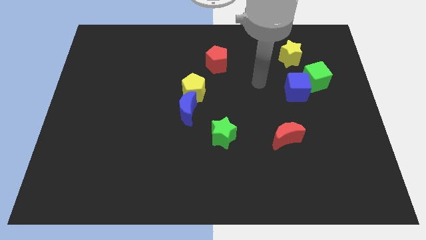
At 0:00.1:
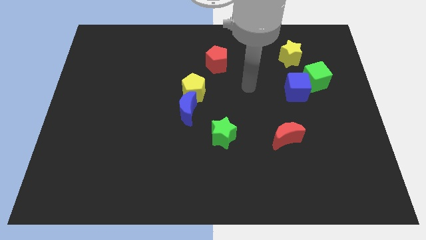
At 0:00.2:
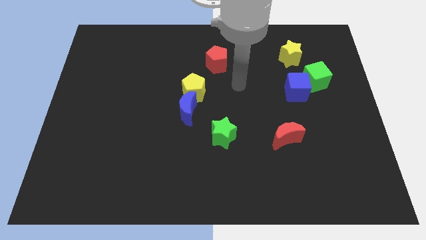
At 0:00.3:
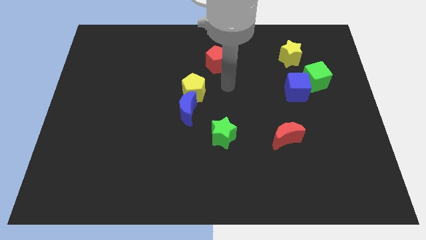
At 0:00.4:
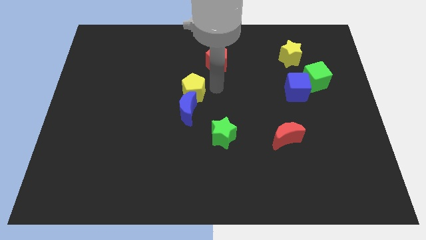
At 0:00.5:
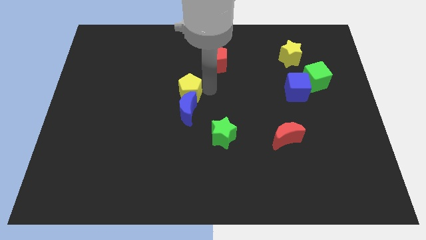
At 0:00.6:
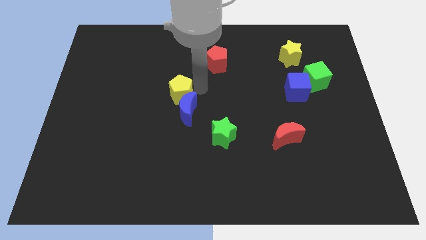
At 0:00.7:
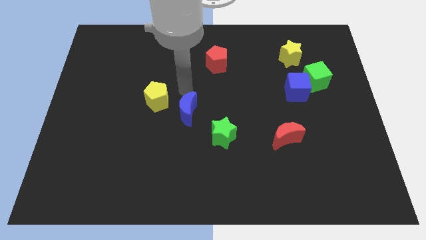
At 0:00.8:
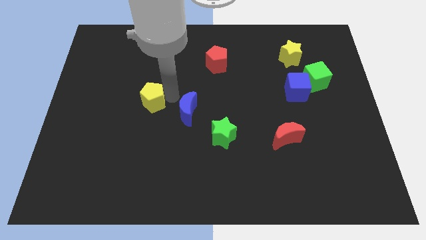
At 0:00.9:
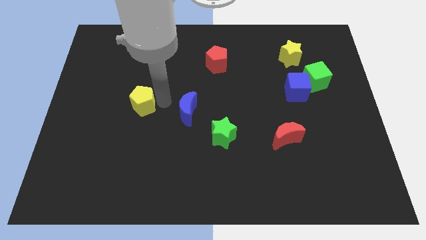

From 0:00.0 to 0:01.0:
pull the blue moon apart from the yellow pentagon

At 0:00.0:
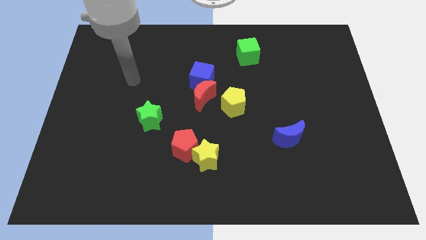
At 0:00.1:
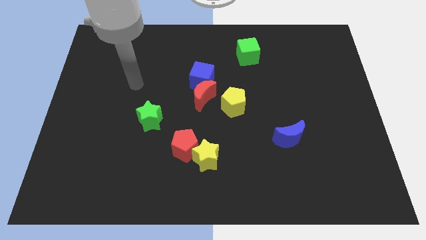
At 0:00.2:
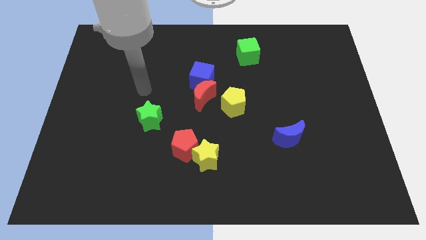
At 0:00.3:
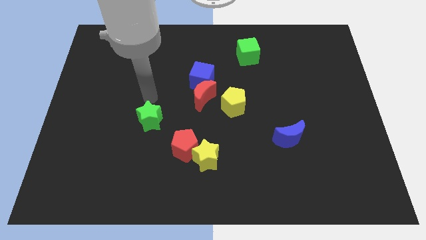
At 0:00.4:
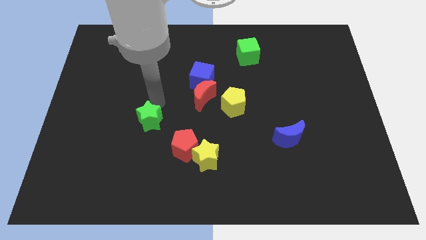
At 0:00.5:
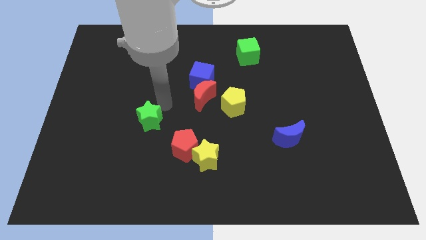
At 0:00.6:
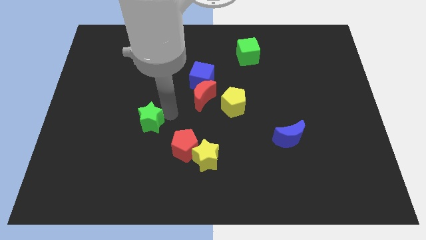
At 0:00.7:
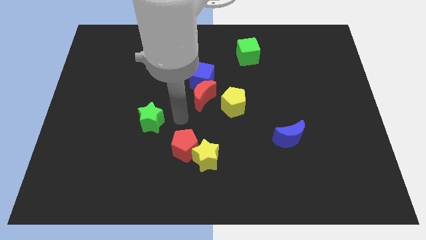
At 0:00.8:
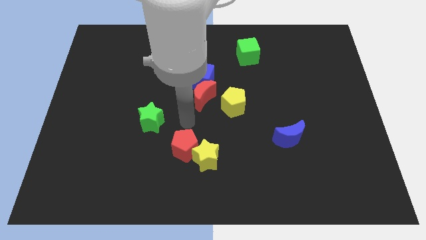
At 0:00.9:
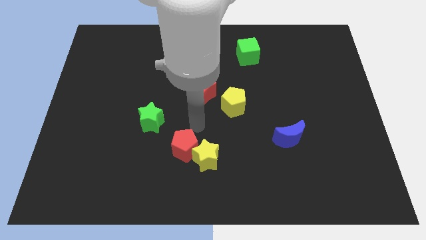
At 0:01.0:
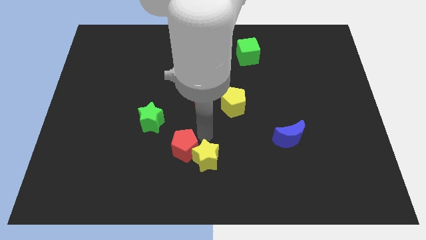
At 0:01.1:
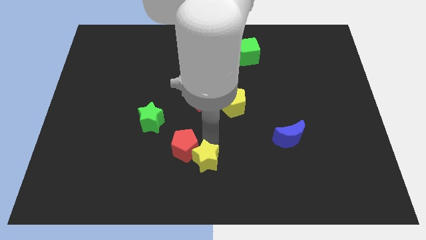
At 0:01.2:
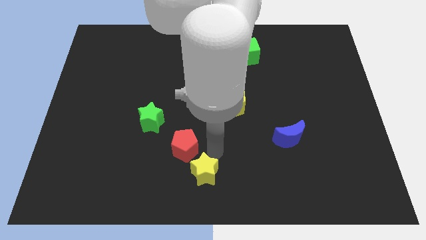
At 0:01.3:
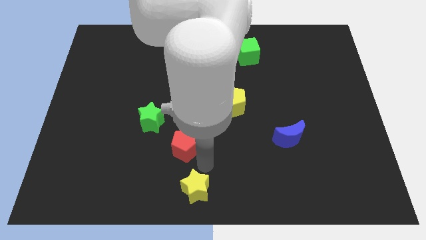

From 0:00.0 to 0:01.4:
pull the red pentagon apart from the yellow star

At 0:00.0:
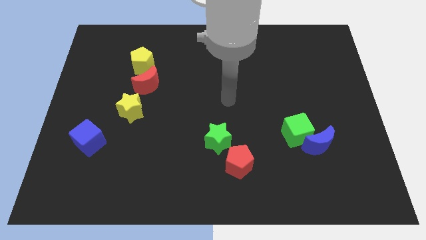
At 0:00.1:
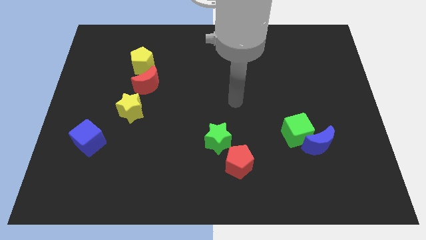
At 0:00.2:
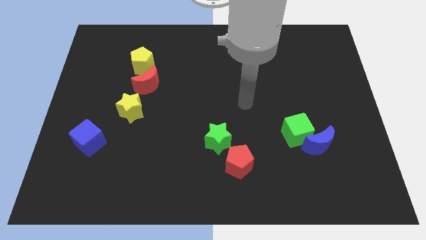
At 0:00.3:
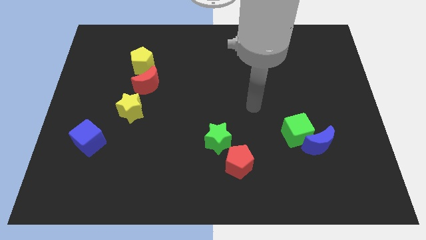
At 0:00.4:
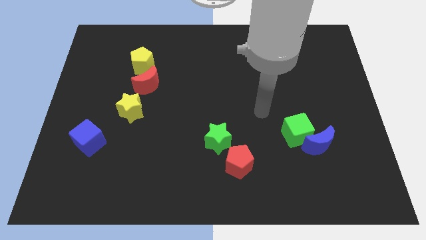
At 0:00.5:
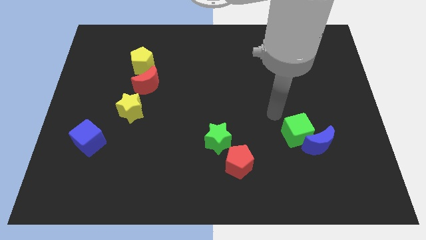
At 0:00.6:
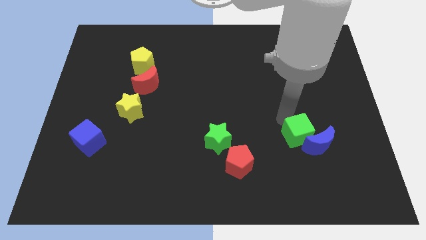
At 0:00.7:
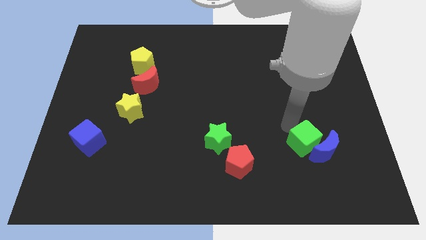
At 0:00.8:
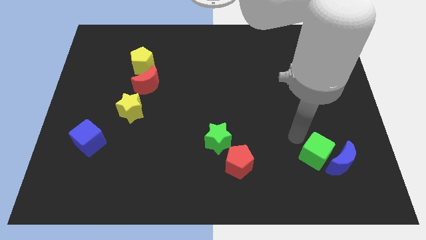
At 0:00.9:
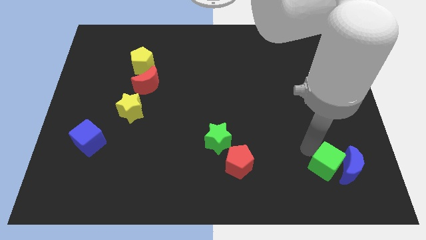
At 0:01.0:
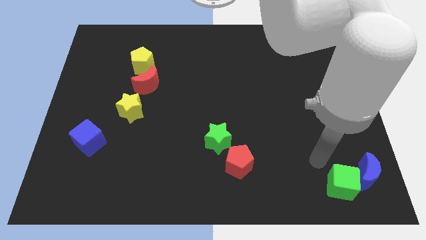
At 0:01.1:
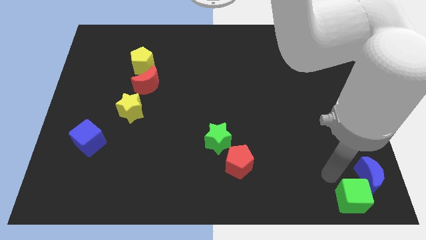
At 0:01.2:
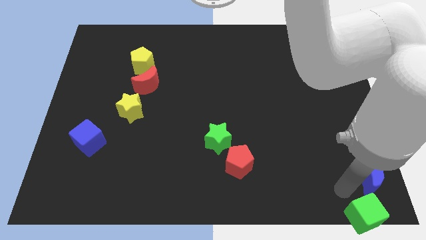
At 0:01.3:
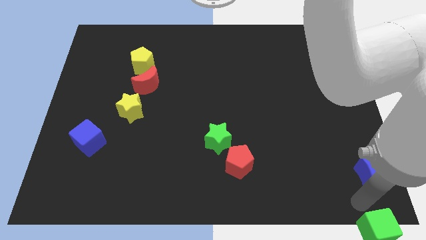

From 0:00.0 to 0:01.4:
move the blue moon away from the green cube

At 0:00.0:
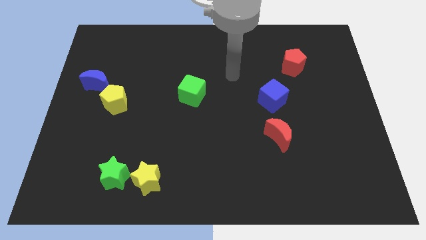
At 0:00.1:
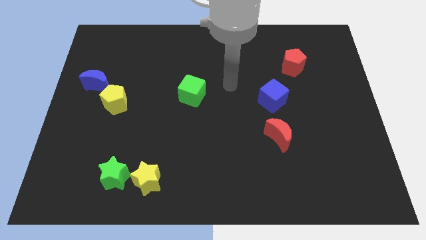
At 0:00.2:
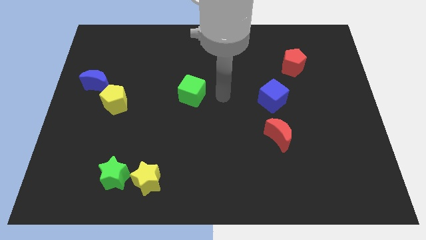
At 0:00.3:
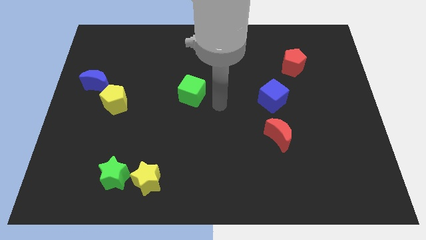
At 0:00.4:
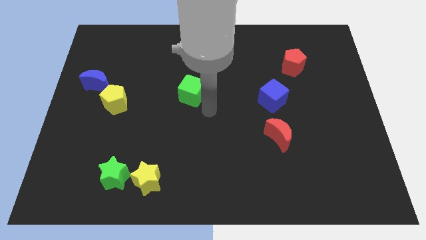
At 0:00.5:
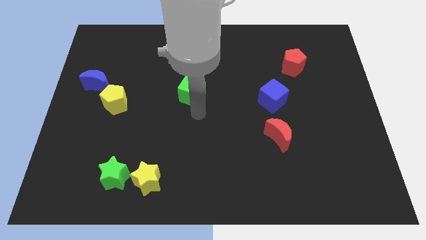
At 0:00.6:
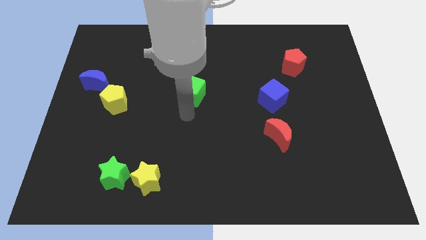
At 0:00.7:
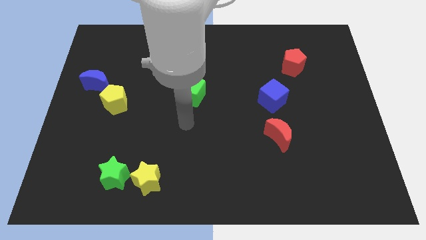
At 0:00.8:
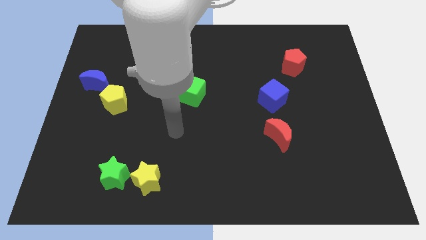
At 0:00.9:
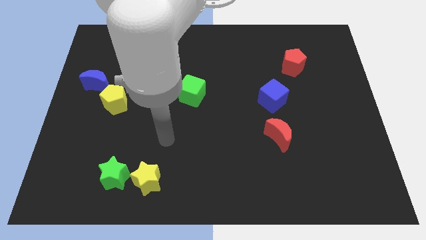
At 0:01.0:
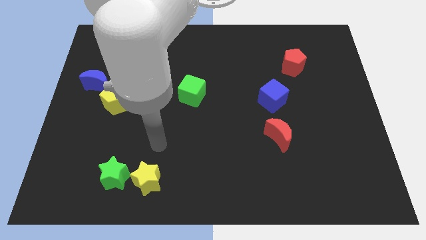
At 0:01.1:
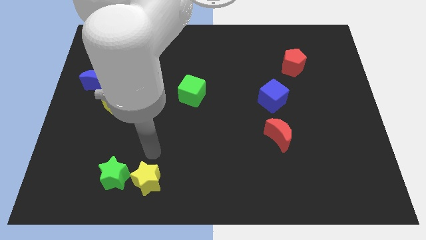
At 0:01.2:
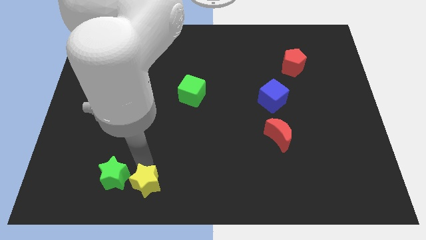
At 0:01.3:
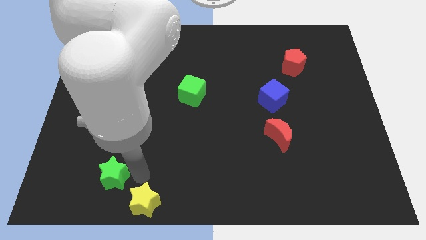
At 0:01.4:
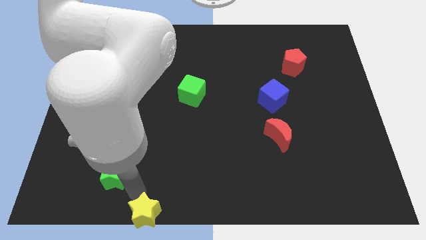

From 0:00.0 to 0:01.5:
separate the green star from the yellow star

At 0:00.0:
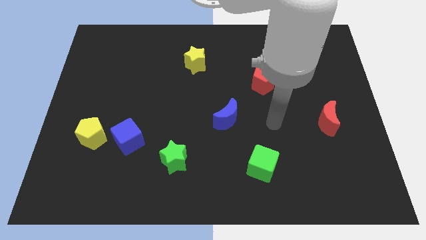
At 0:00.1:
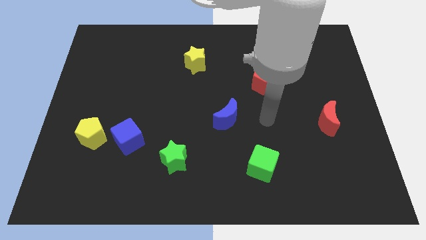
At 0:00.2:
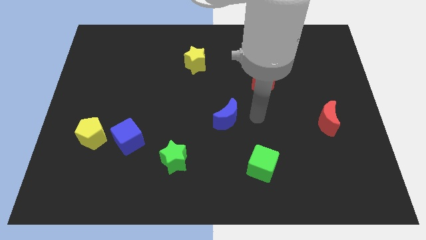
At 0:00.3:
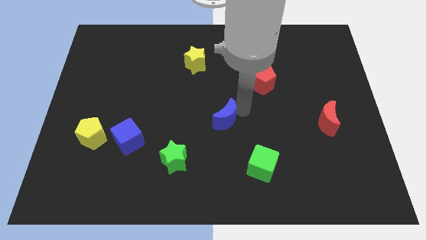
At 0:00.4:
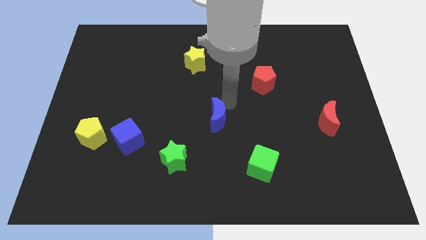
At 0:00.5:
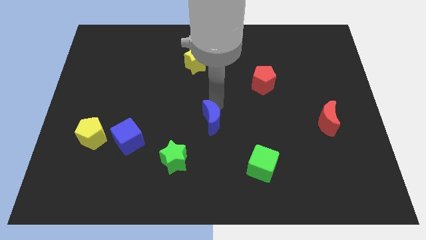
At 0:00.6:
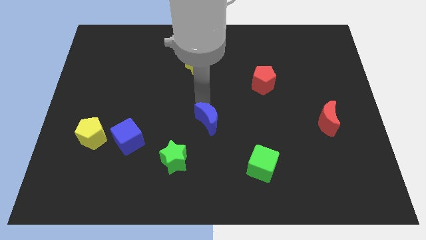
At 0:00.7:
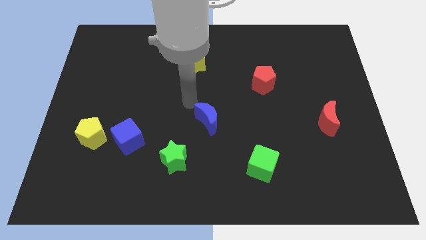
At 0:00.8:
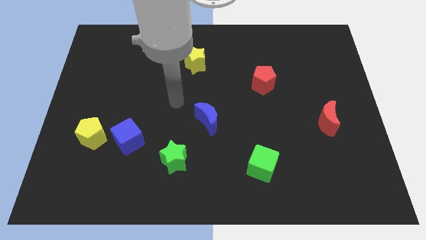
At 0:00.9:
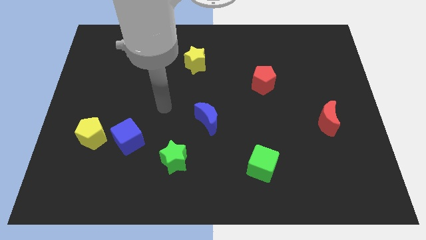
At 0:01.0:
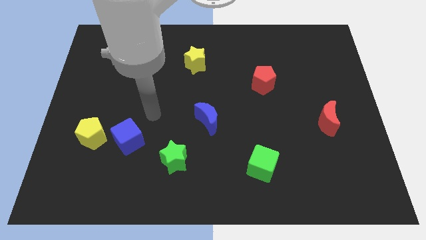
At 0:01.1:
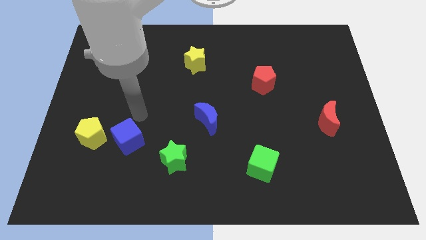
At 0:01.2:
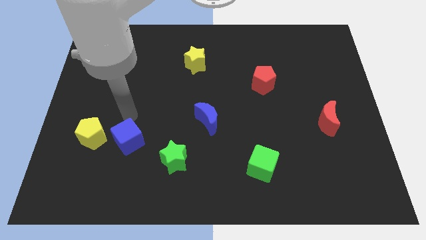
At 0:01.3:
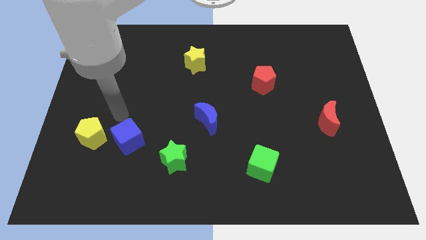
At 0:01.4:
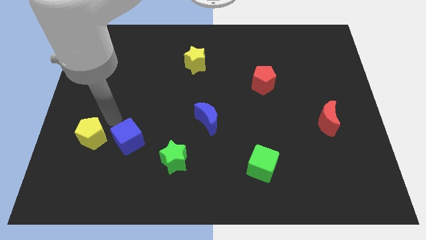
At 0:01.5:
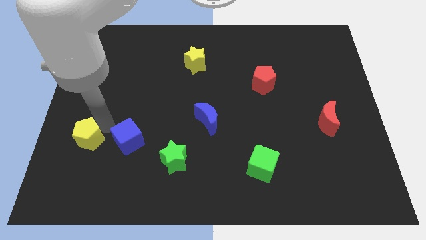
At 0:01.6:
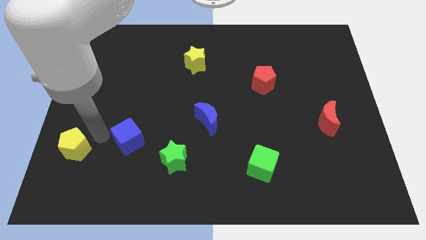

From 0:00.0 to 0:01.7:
move the blue cube away from the yellow pentagon

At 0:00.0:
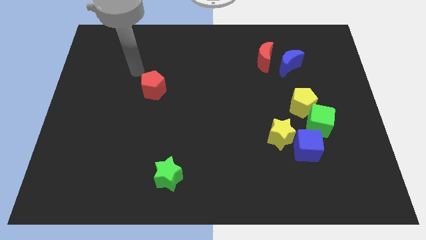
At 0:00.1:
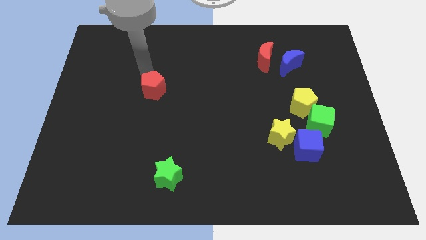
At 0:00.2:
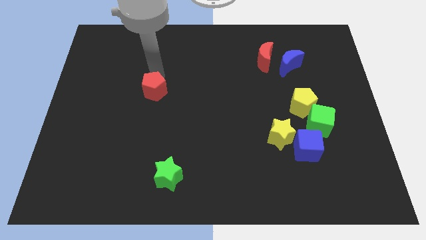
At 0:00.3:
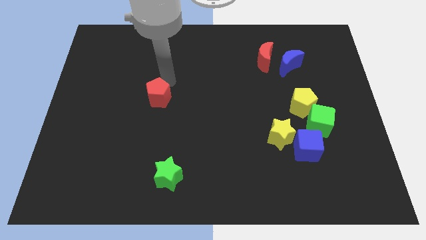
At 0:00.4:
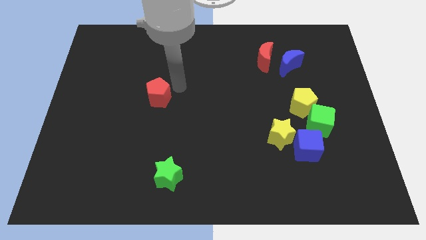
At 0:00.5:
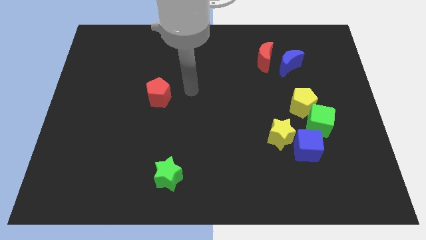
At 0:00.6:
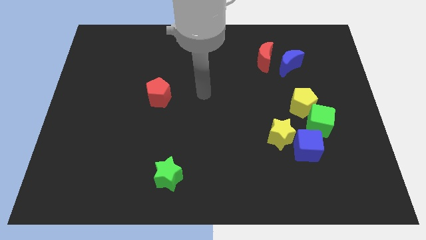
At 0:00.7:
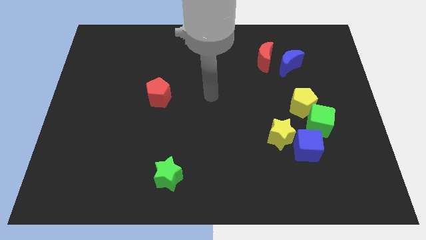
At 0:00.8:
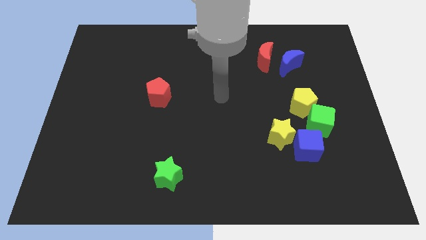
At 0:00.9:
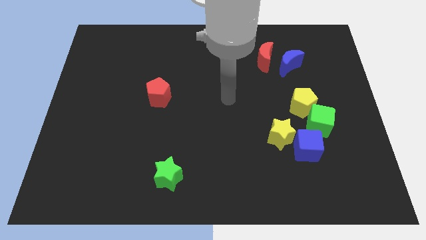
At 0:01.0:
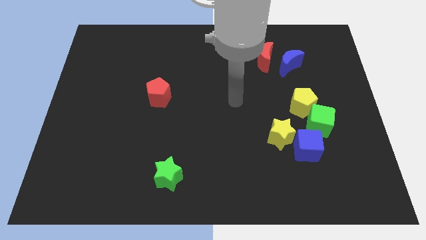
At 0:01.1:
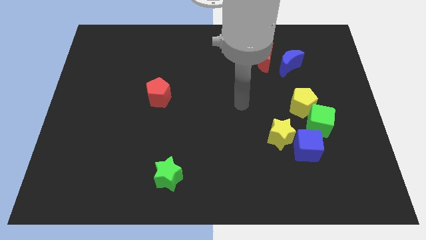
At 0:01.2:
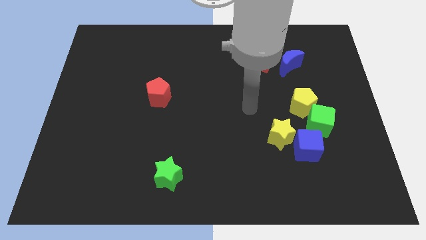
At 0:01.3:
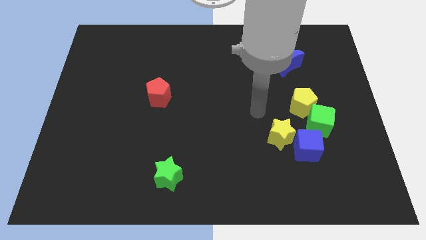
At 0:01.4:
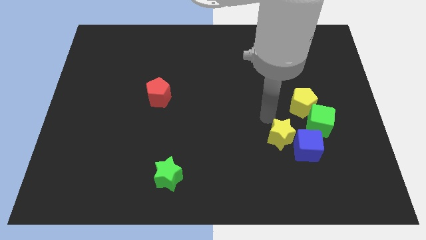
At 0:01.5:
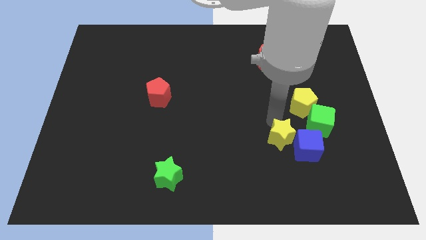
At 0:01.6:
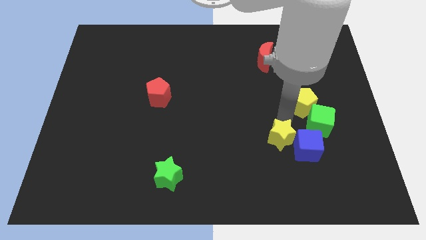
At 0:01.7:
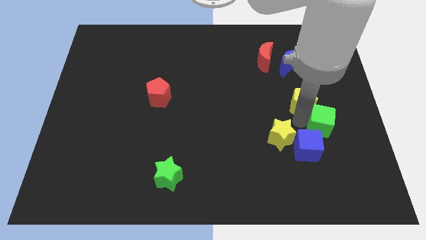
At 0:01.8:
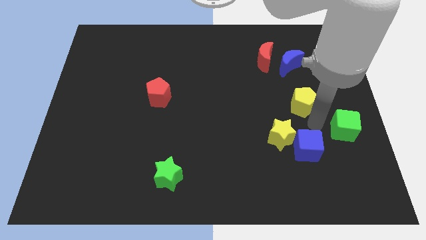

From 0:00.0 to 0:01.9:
move the yellow pentagon away from the green cube

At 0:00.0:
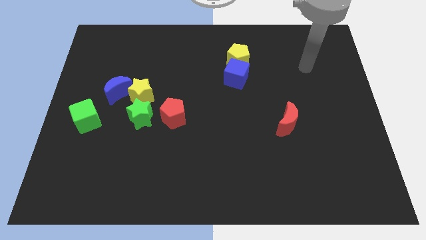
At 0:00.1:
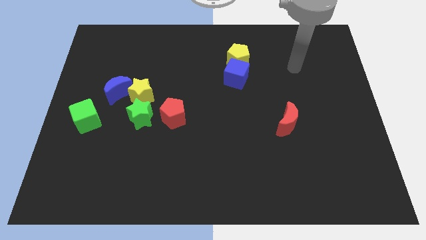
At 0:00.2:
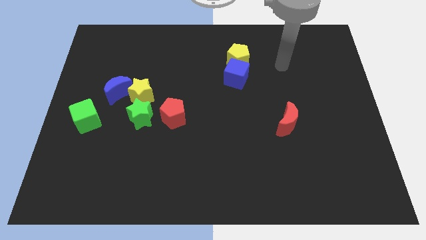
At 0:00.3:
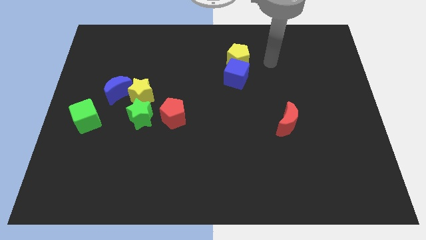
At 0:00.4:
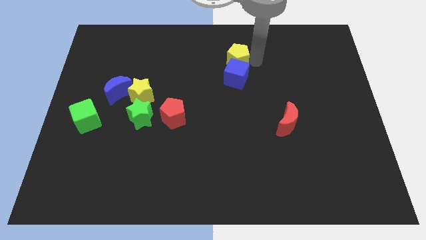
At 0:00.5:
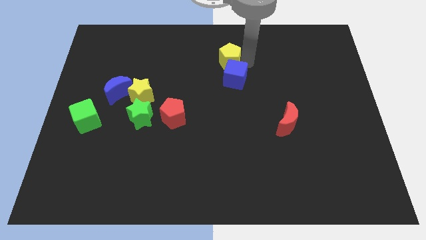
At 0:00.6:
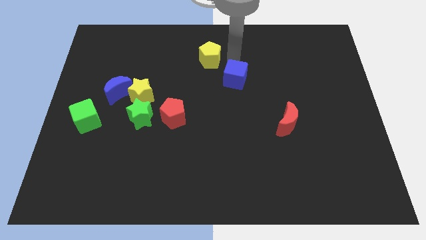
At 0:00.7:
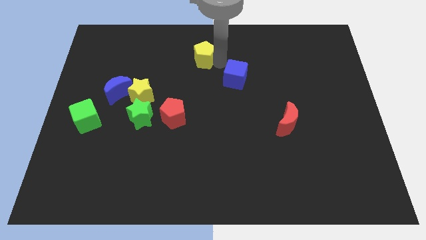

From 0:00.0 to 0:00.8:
separate the blue cube from the yellow pentagon
